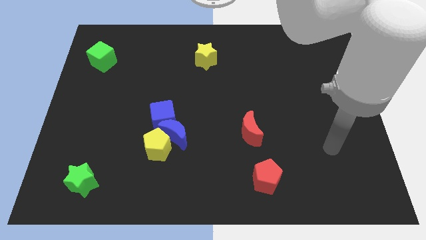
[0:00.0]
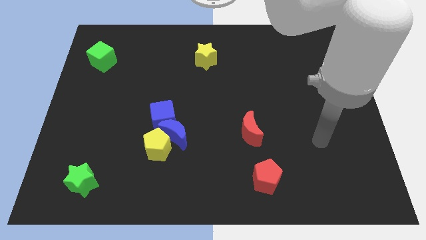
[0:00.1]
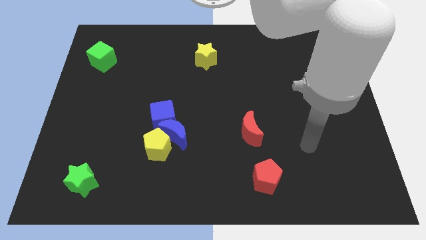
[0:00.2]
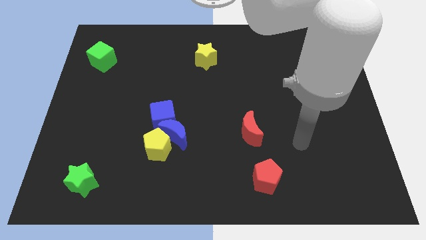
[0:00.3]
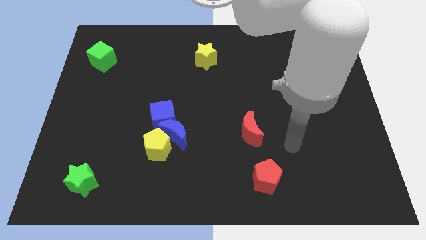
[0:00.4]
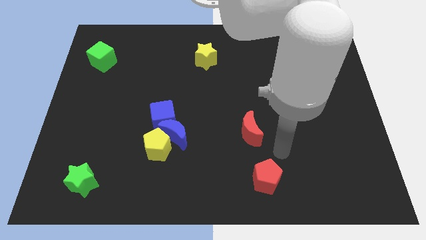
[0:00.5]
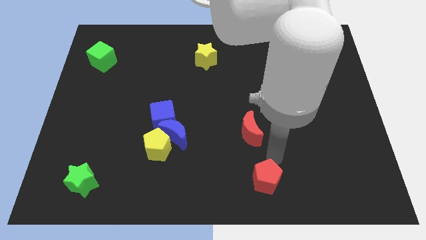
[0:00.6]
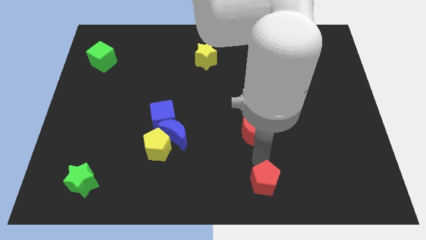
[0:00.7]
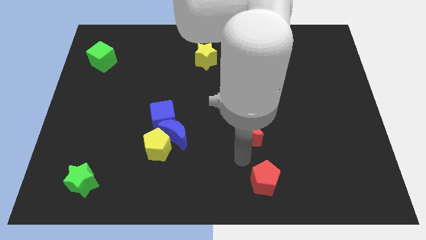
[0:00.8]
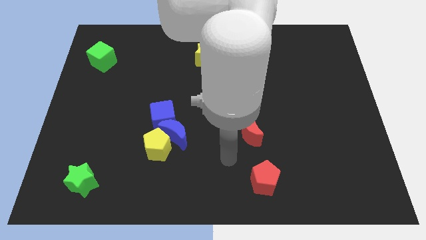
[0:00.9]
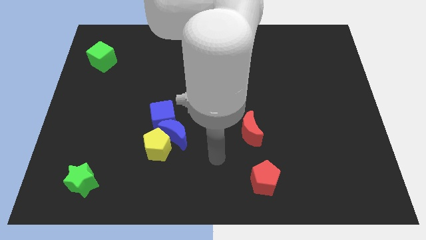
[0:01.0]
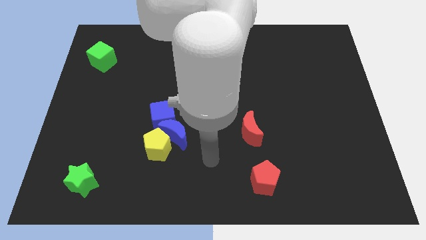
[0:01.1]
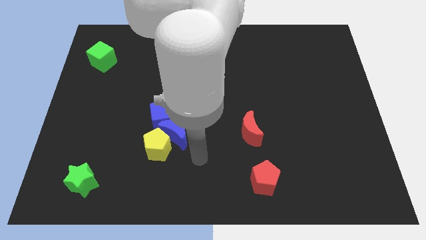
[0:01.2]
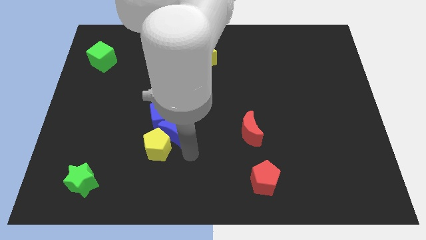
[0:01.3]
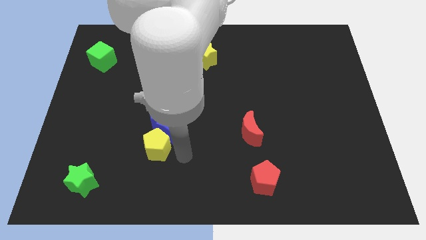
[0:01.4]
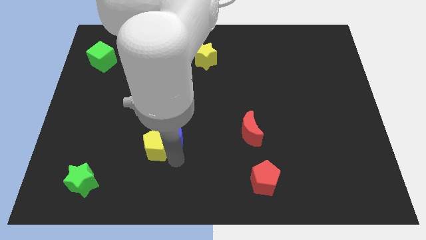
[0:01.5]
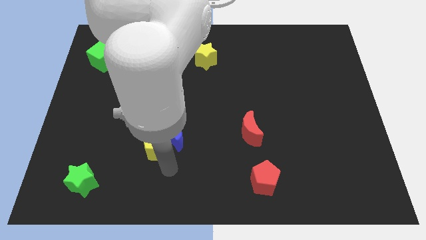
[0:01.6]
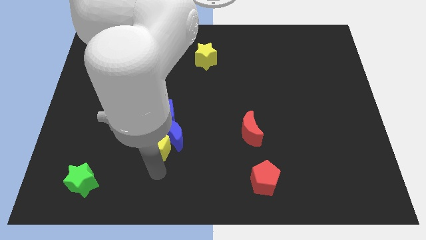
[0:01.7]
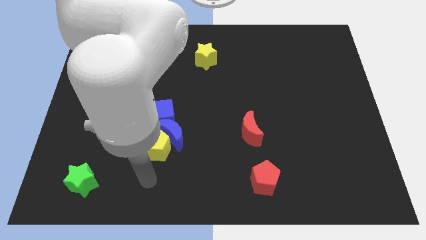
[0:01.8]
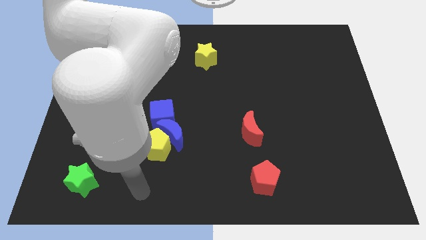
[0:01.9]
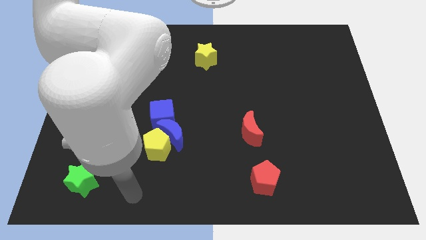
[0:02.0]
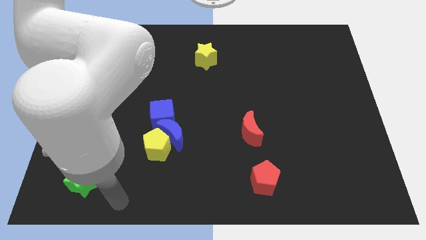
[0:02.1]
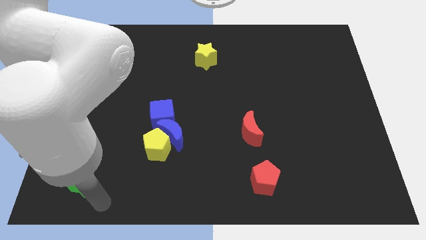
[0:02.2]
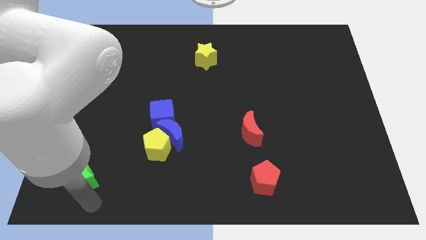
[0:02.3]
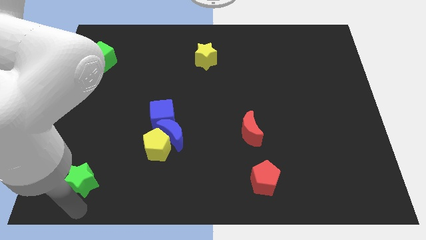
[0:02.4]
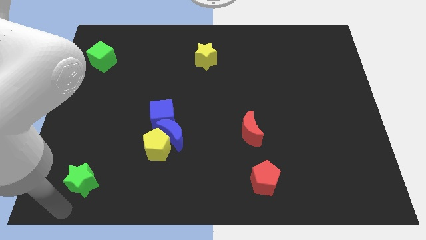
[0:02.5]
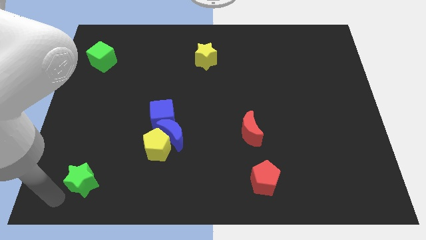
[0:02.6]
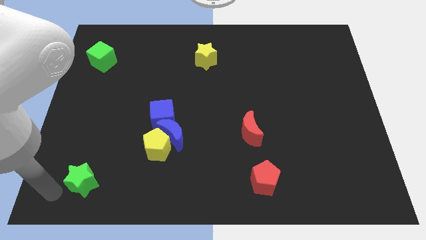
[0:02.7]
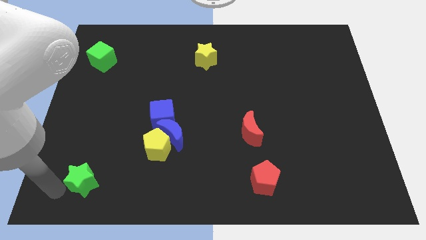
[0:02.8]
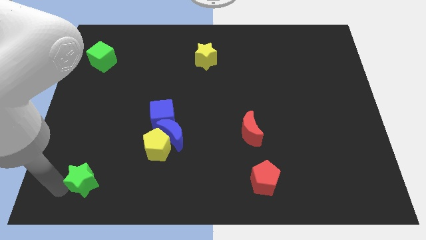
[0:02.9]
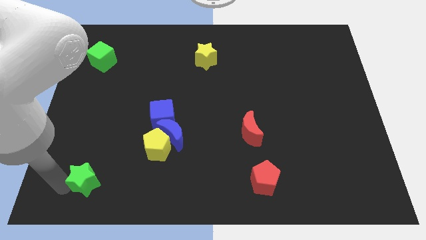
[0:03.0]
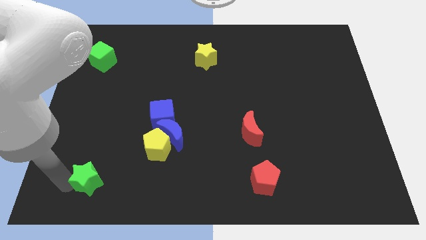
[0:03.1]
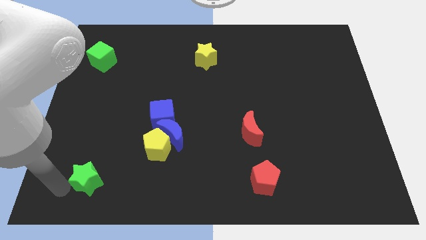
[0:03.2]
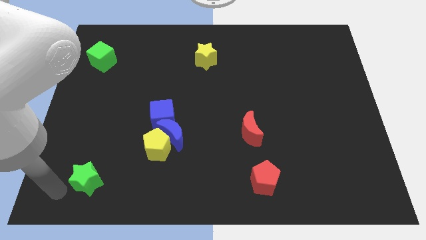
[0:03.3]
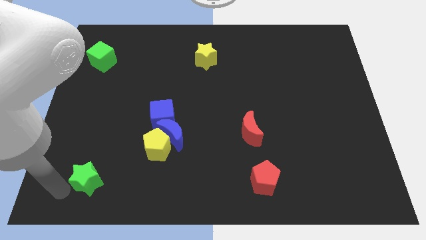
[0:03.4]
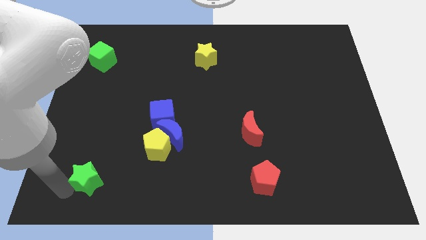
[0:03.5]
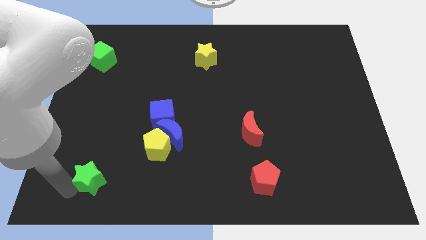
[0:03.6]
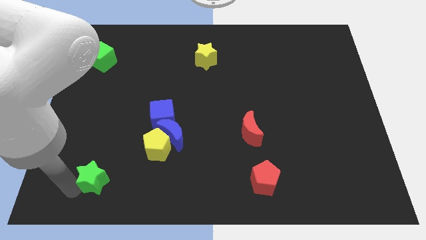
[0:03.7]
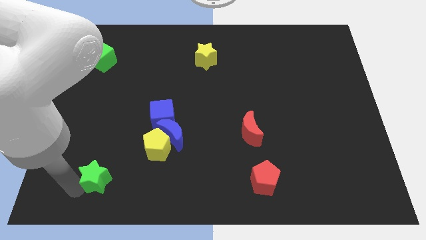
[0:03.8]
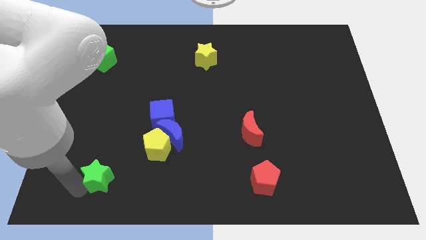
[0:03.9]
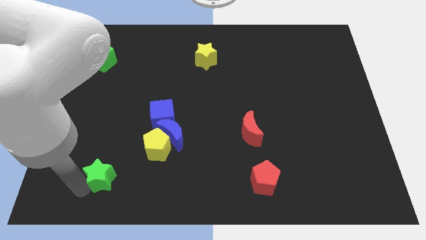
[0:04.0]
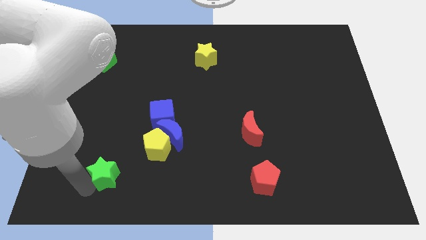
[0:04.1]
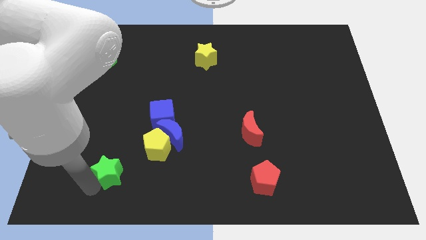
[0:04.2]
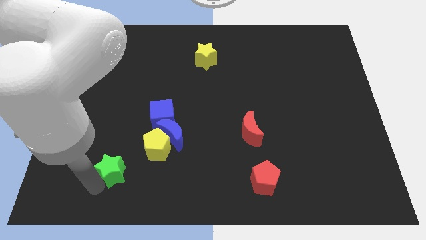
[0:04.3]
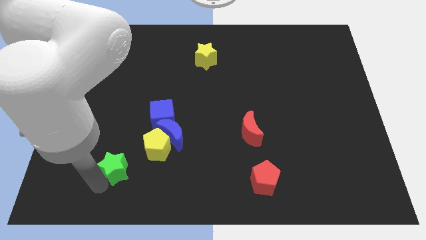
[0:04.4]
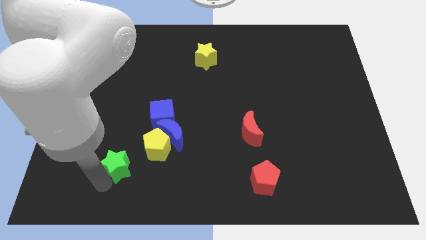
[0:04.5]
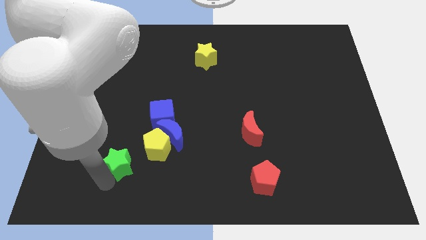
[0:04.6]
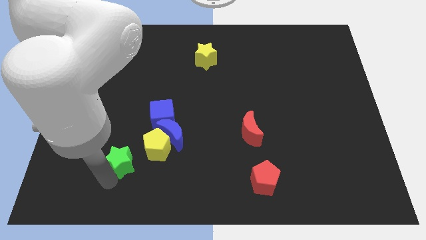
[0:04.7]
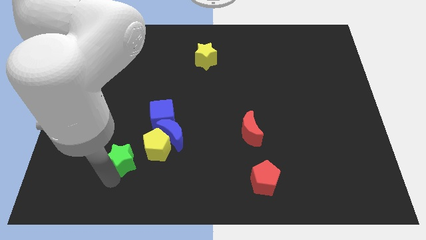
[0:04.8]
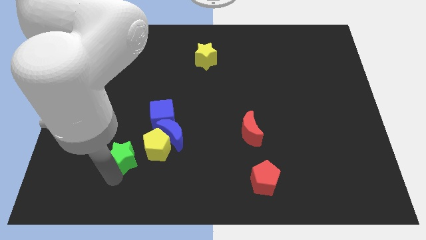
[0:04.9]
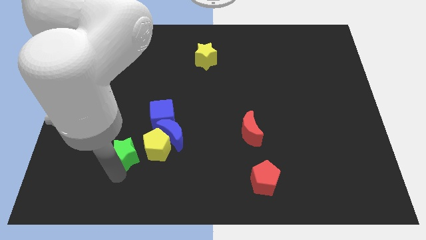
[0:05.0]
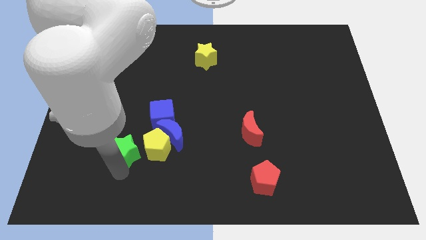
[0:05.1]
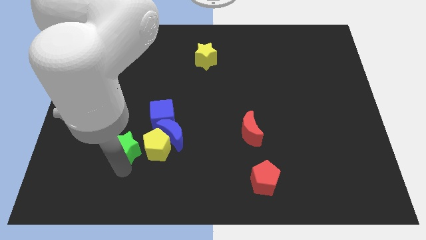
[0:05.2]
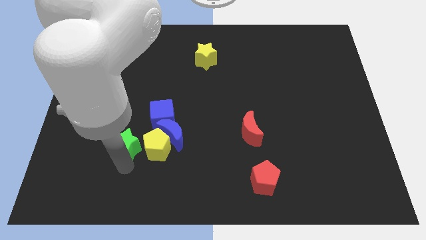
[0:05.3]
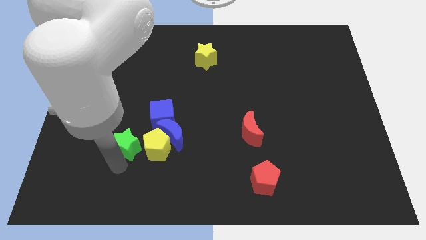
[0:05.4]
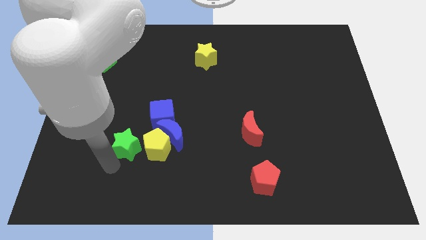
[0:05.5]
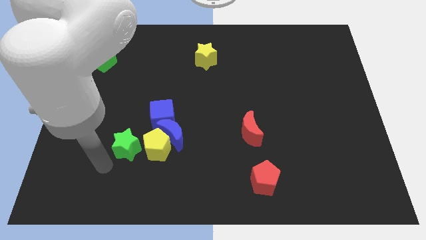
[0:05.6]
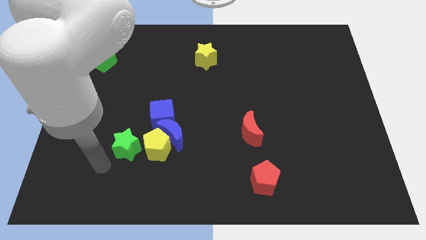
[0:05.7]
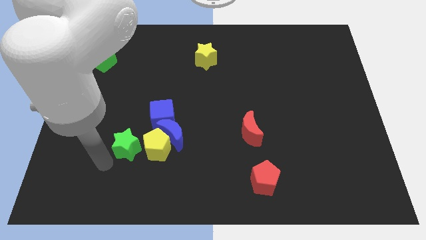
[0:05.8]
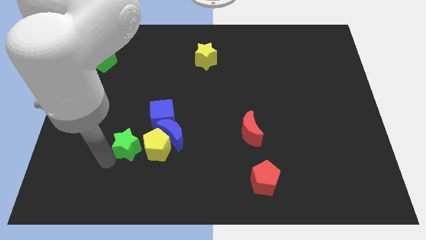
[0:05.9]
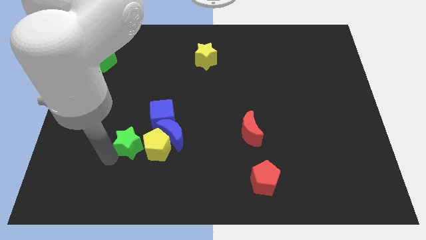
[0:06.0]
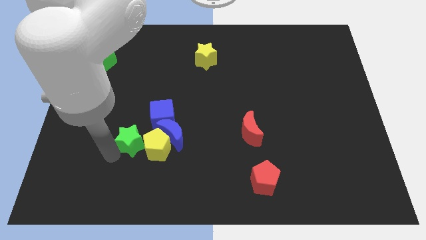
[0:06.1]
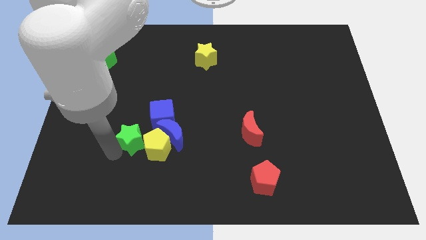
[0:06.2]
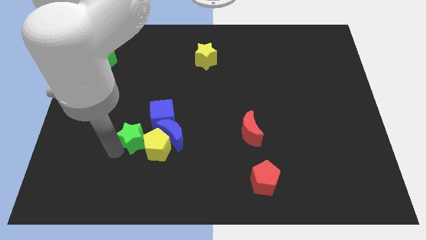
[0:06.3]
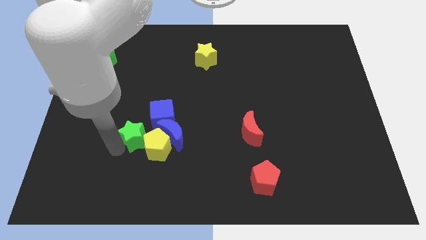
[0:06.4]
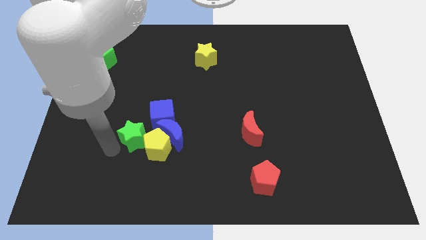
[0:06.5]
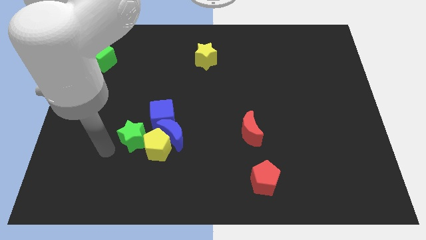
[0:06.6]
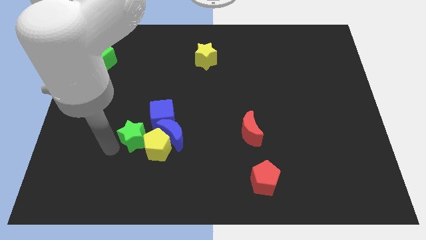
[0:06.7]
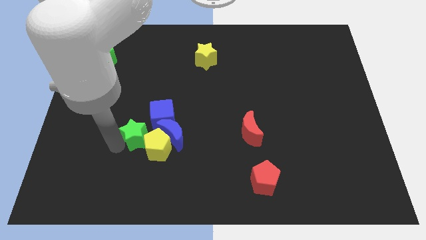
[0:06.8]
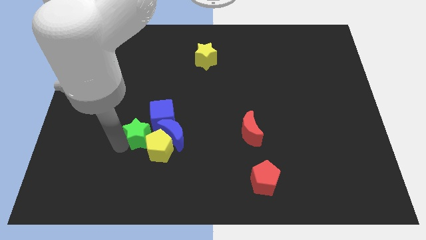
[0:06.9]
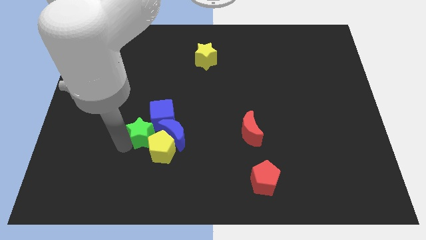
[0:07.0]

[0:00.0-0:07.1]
push the green star next to the blue cube

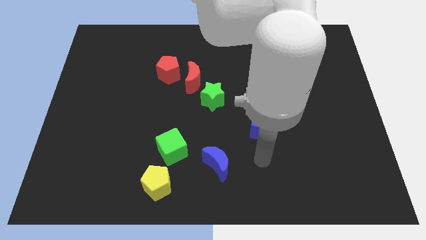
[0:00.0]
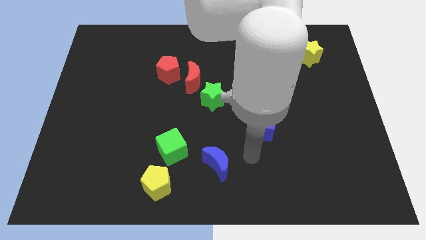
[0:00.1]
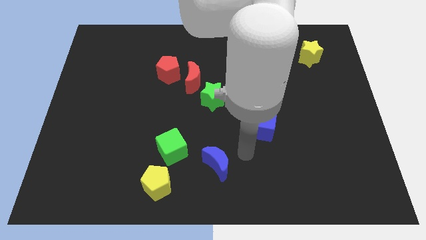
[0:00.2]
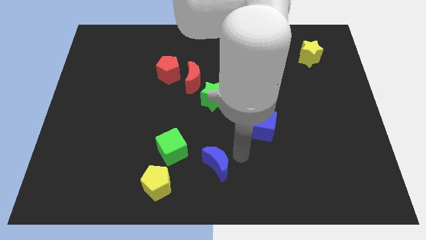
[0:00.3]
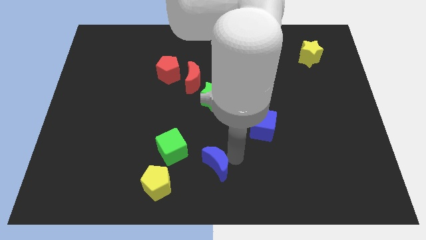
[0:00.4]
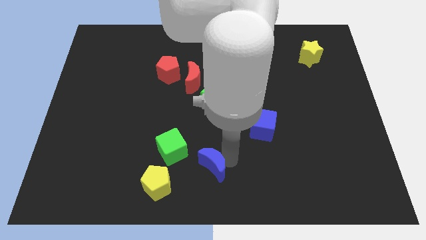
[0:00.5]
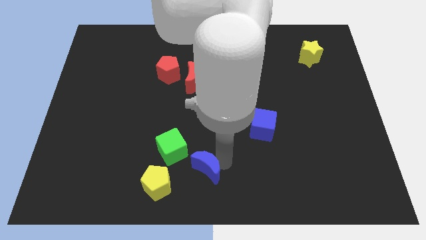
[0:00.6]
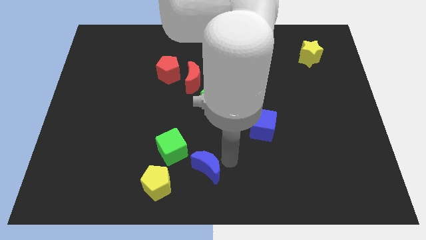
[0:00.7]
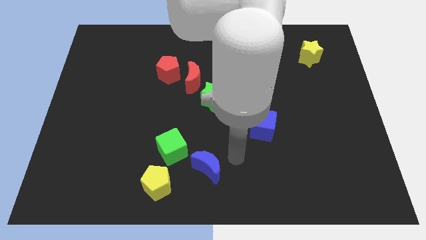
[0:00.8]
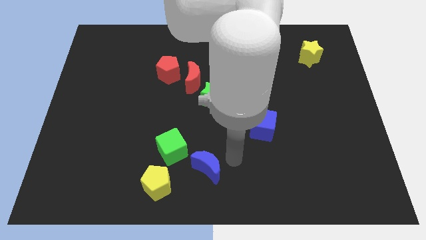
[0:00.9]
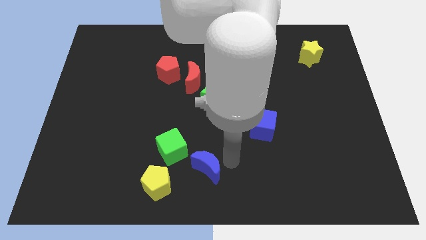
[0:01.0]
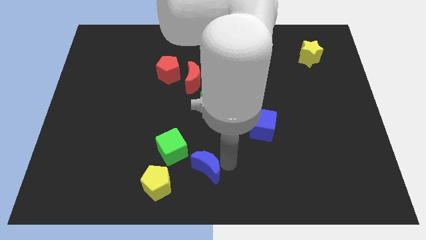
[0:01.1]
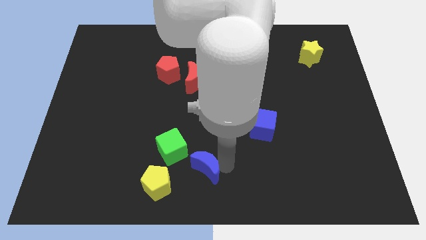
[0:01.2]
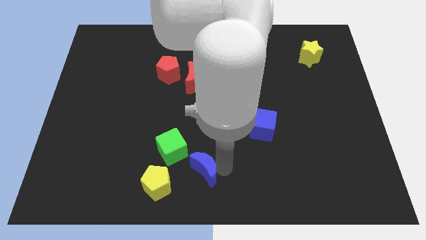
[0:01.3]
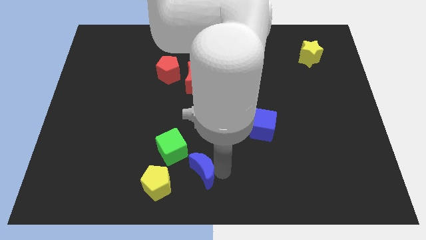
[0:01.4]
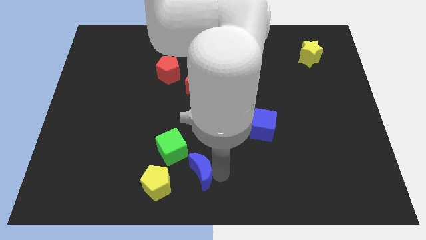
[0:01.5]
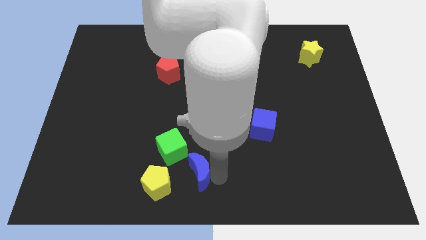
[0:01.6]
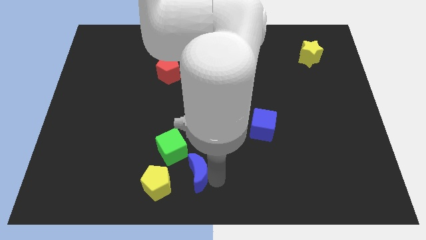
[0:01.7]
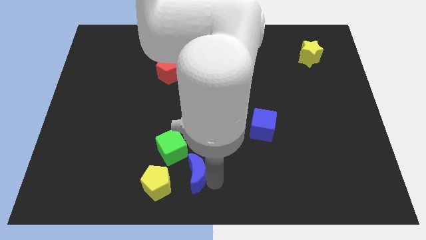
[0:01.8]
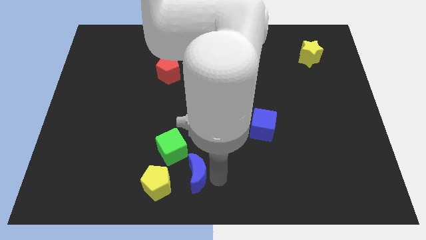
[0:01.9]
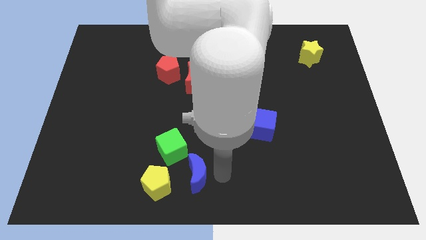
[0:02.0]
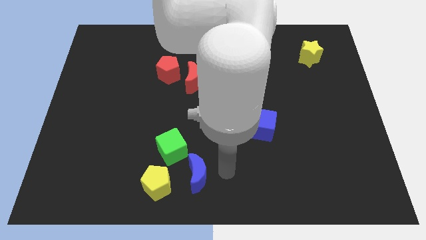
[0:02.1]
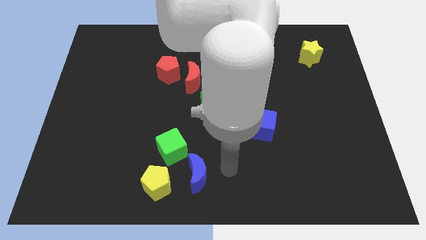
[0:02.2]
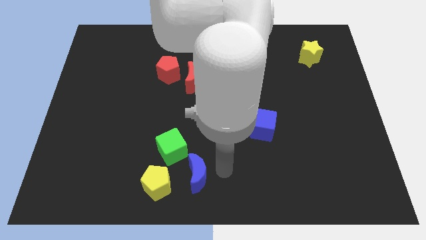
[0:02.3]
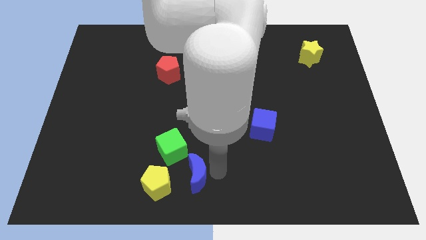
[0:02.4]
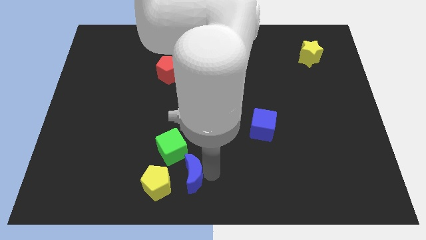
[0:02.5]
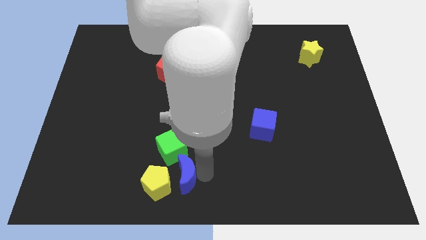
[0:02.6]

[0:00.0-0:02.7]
put the blue moon towards the yellow pentagon
